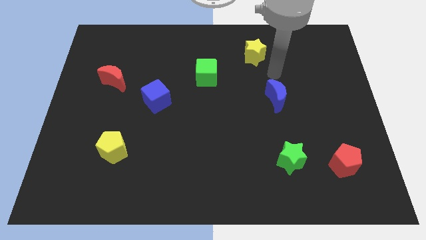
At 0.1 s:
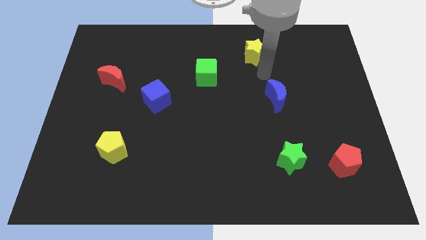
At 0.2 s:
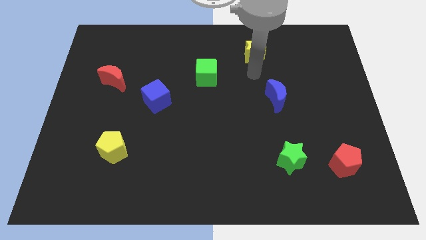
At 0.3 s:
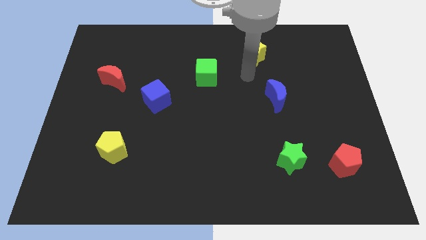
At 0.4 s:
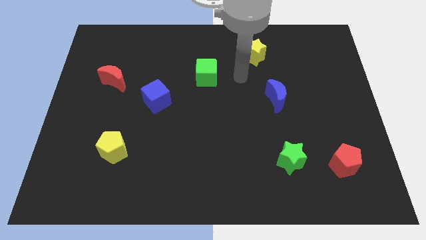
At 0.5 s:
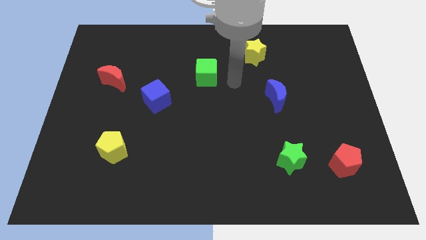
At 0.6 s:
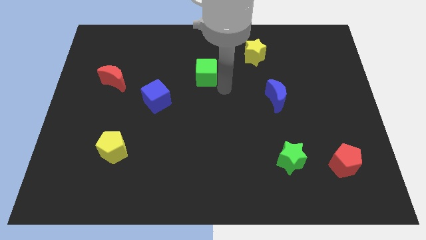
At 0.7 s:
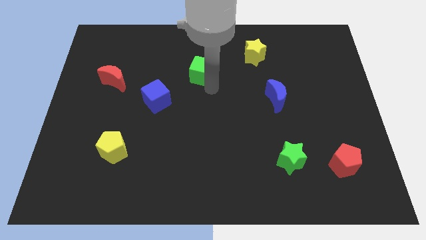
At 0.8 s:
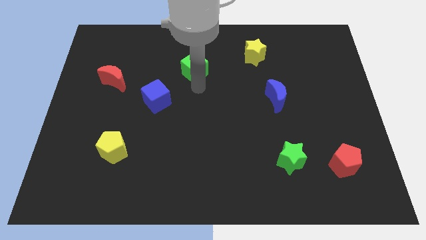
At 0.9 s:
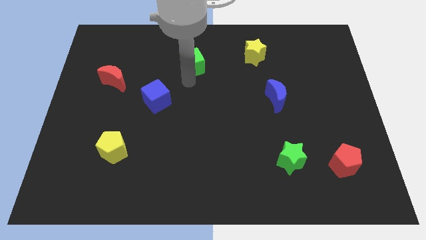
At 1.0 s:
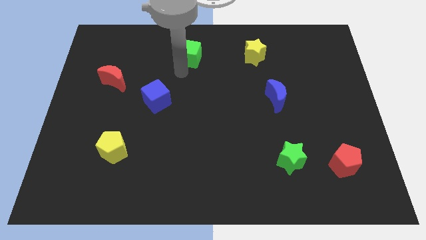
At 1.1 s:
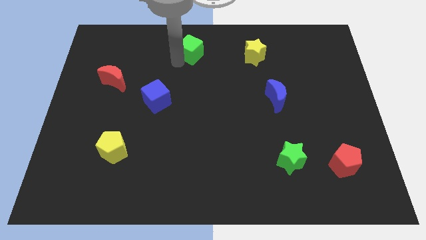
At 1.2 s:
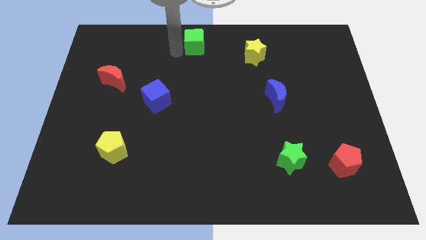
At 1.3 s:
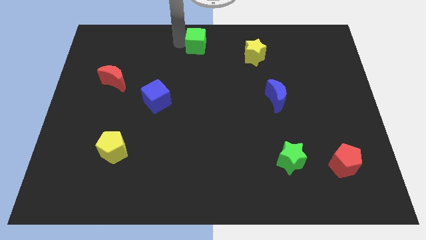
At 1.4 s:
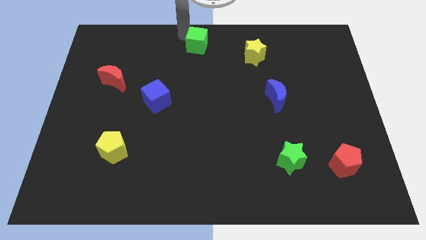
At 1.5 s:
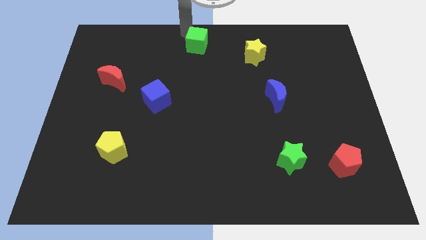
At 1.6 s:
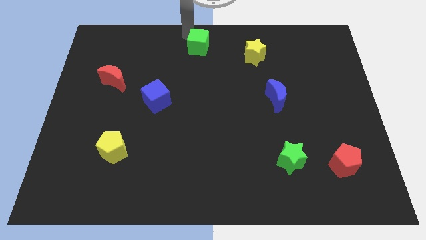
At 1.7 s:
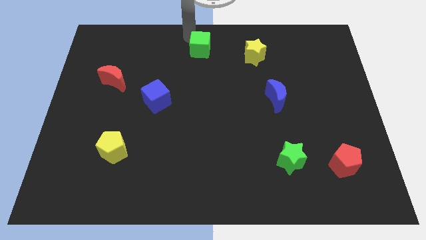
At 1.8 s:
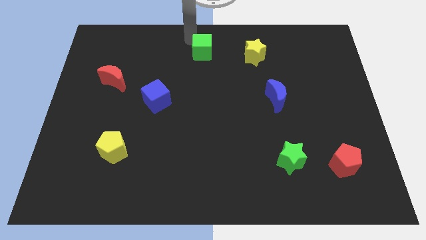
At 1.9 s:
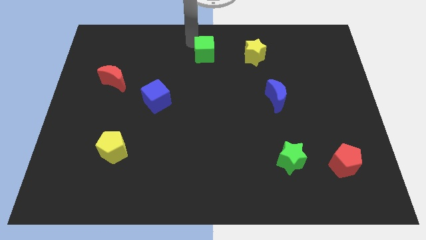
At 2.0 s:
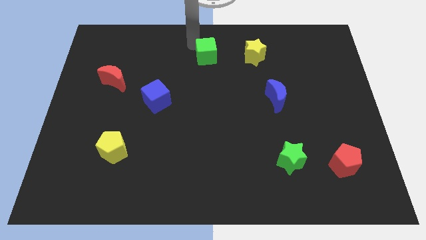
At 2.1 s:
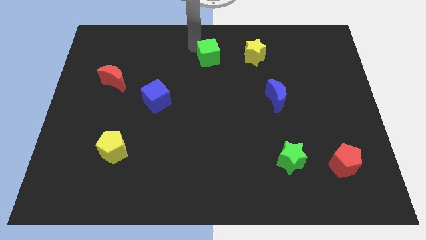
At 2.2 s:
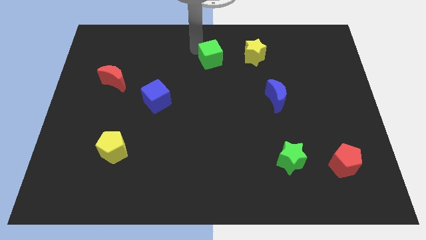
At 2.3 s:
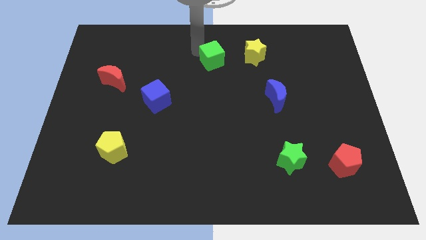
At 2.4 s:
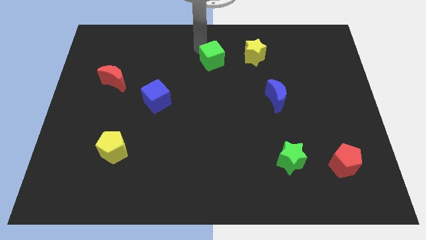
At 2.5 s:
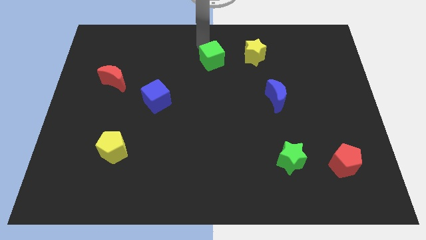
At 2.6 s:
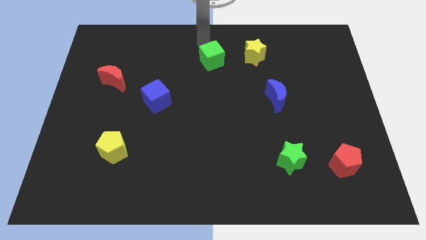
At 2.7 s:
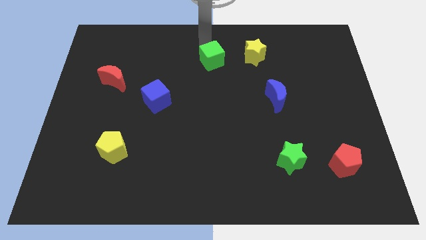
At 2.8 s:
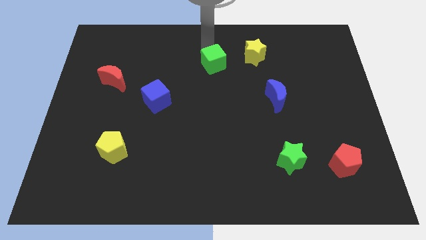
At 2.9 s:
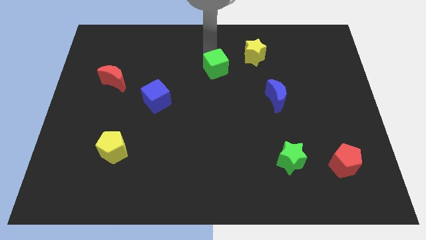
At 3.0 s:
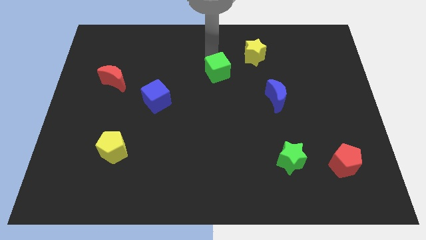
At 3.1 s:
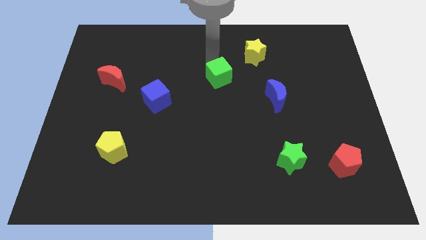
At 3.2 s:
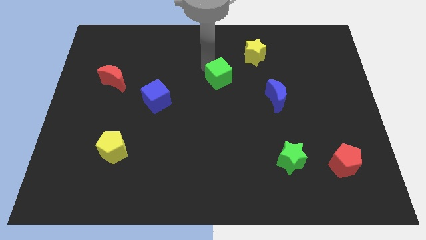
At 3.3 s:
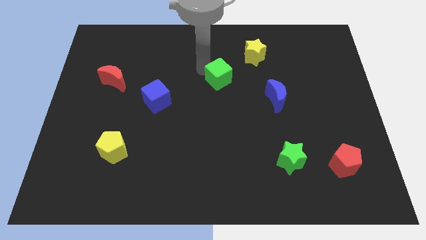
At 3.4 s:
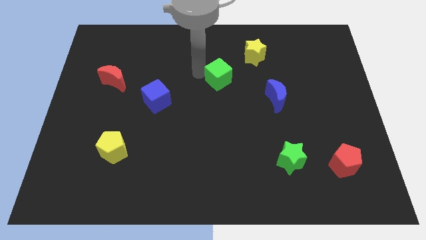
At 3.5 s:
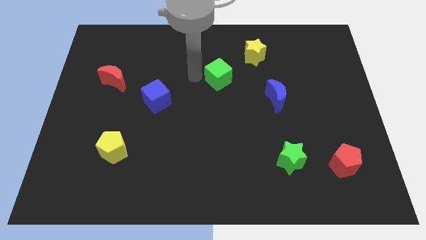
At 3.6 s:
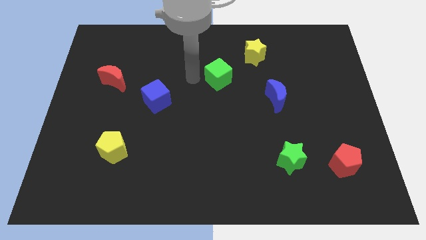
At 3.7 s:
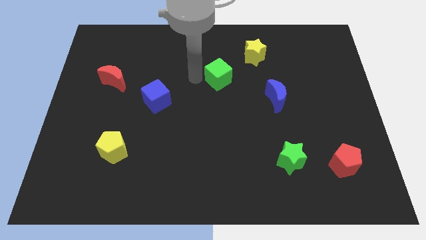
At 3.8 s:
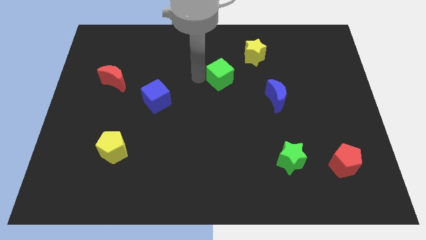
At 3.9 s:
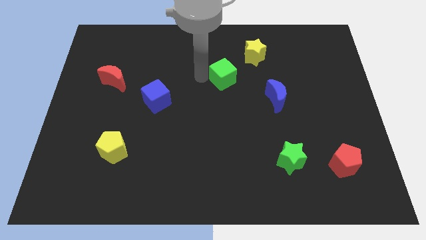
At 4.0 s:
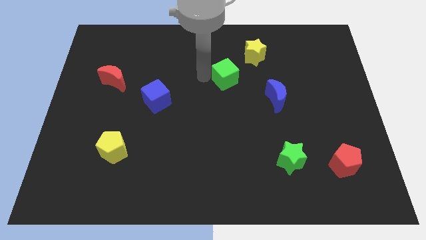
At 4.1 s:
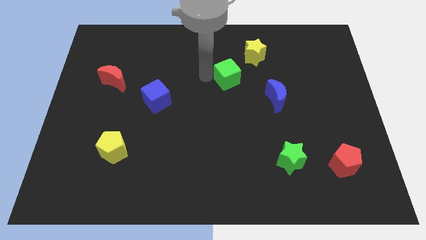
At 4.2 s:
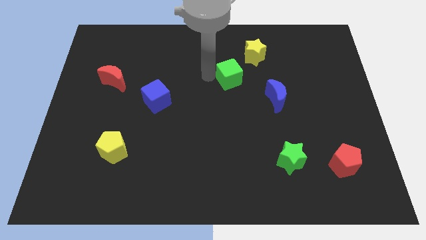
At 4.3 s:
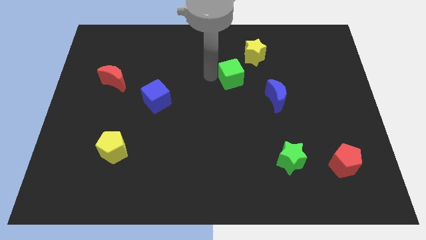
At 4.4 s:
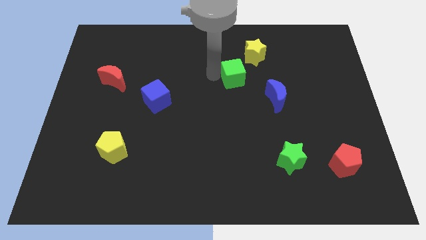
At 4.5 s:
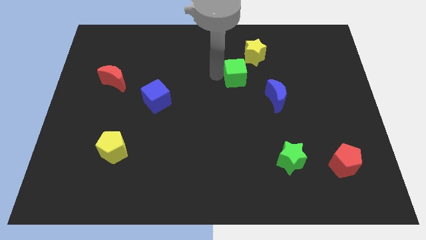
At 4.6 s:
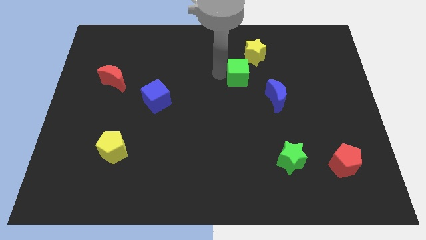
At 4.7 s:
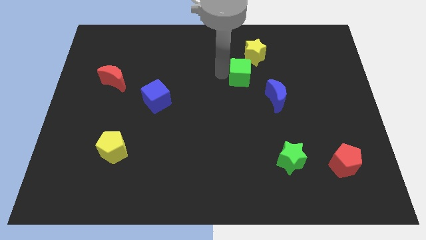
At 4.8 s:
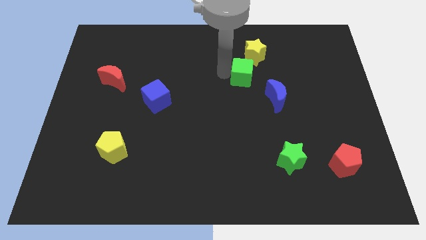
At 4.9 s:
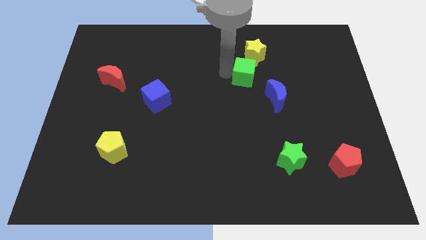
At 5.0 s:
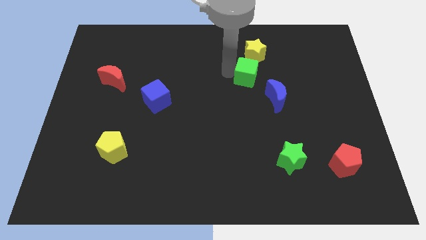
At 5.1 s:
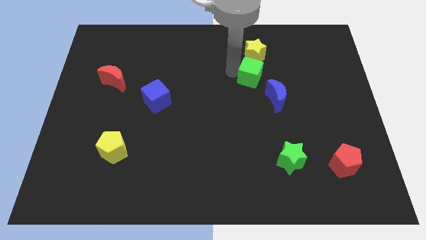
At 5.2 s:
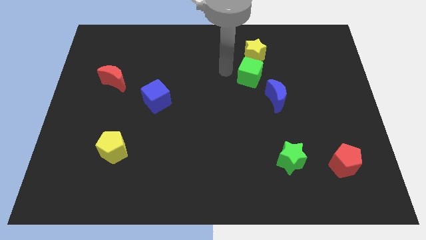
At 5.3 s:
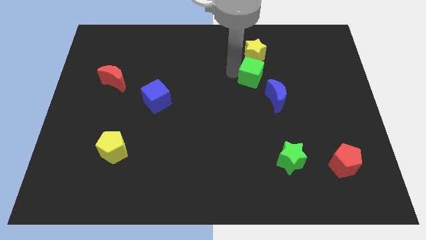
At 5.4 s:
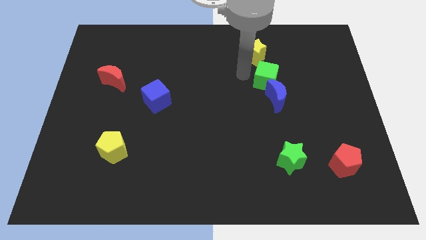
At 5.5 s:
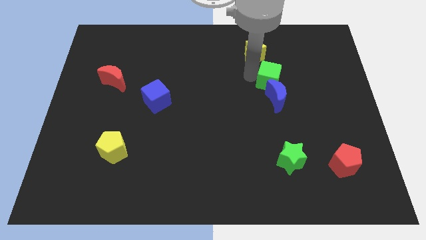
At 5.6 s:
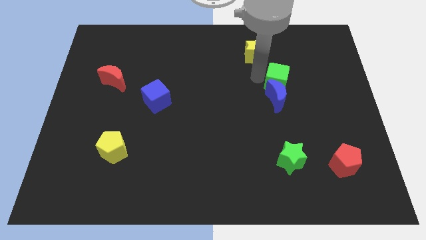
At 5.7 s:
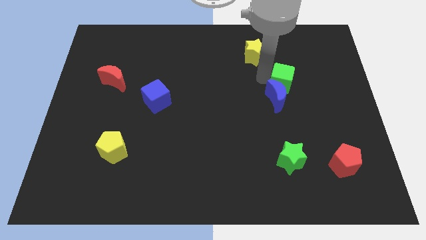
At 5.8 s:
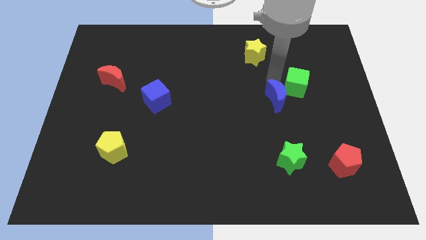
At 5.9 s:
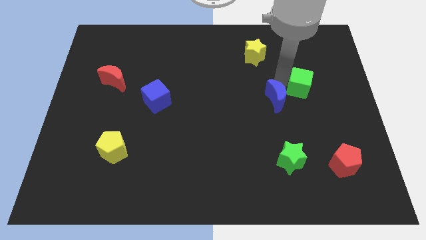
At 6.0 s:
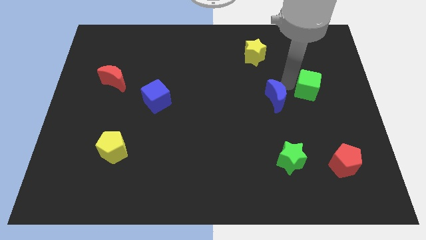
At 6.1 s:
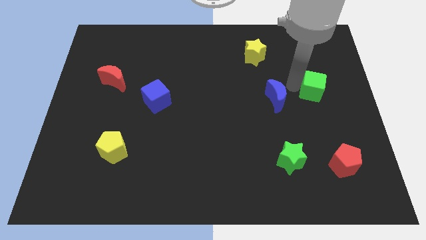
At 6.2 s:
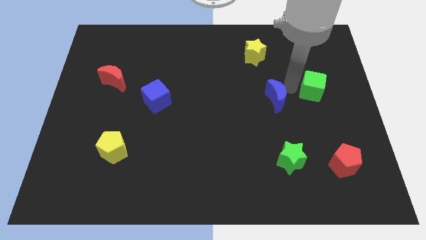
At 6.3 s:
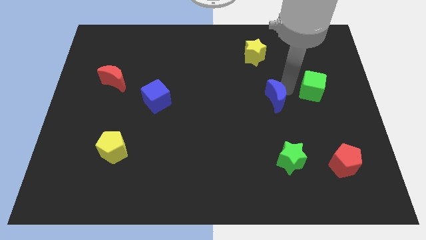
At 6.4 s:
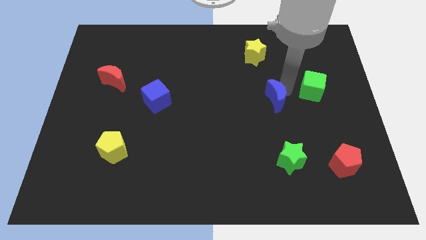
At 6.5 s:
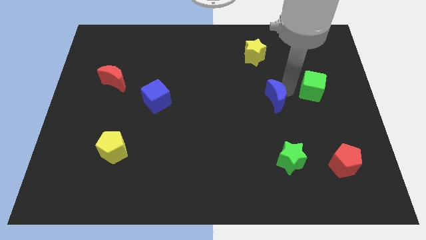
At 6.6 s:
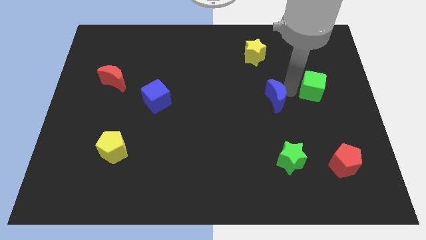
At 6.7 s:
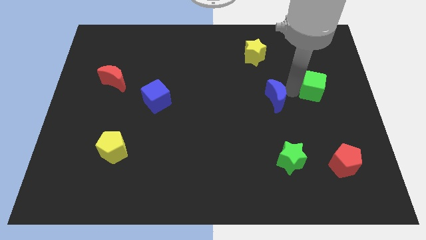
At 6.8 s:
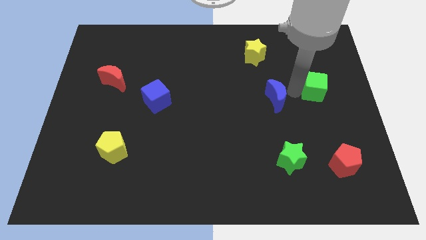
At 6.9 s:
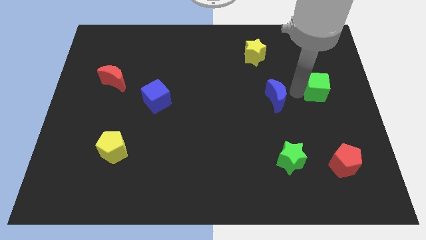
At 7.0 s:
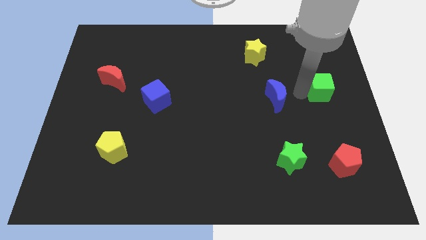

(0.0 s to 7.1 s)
push the green cube to the right side

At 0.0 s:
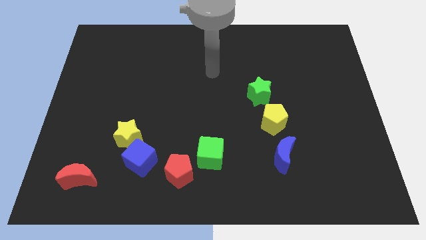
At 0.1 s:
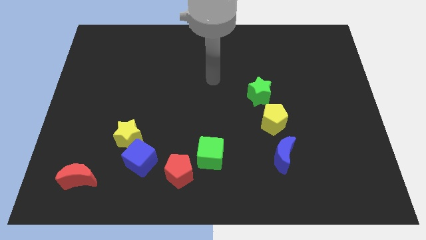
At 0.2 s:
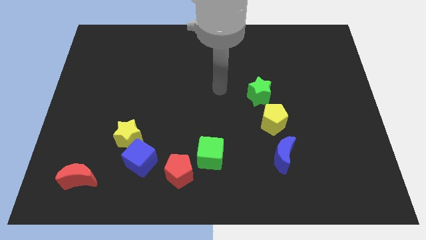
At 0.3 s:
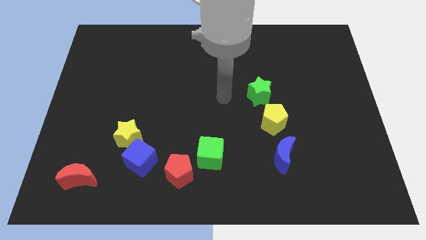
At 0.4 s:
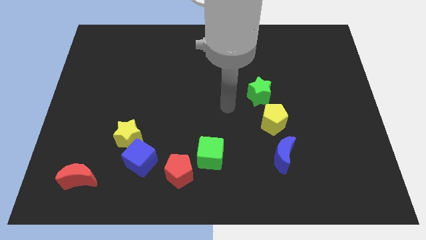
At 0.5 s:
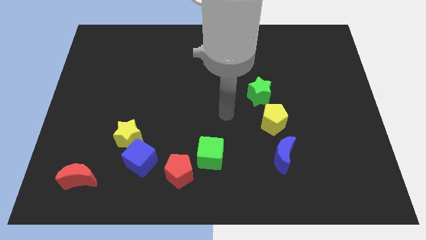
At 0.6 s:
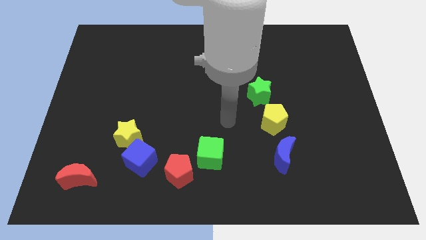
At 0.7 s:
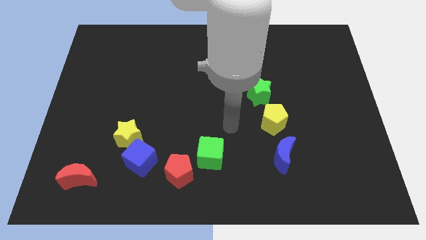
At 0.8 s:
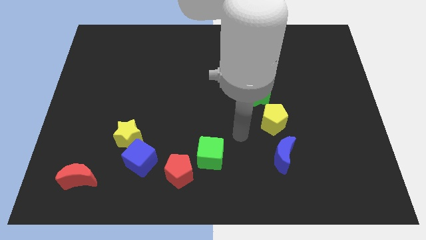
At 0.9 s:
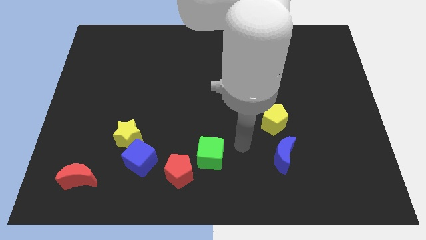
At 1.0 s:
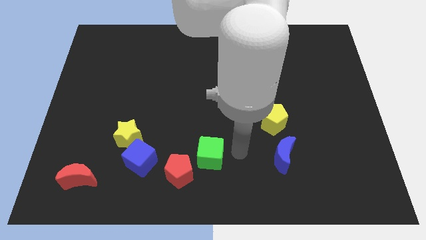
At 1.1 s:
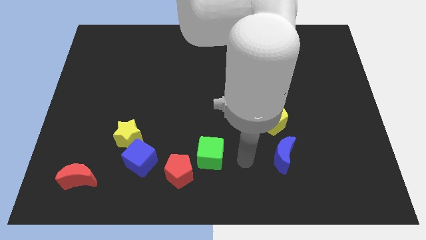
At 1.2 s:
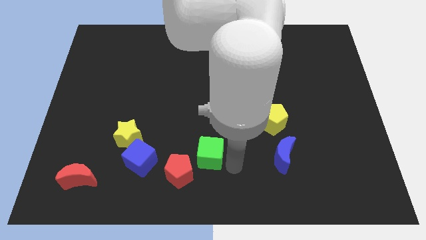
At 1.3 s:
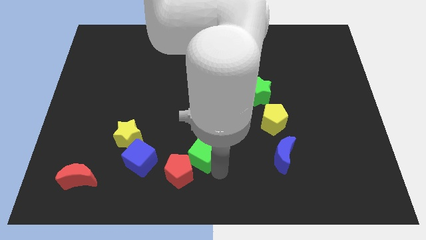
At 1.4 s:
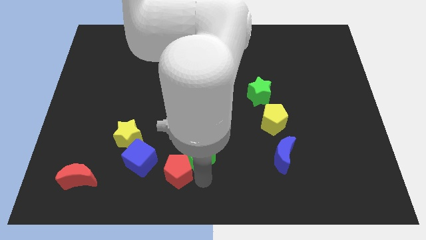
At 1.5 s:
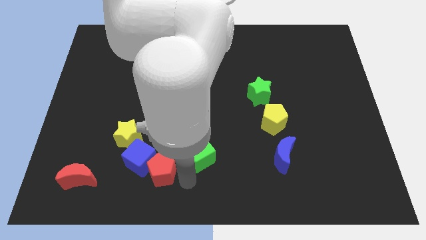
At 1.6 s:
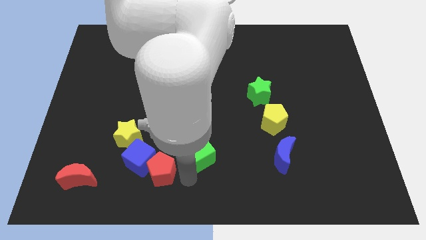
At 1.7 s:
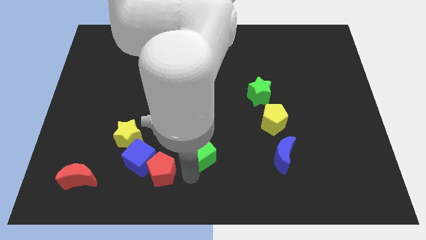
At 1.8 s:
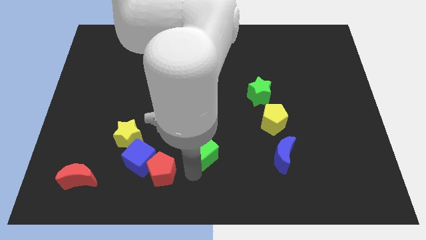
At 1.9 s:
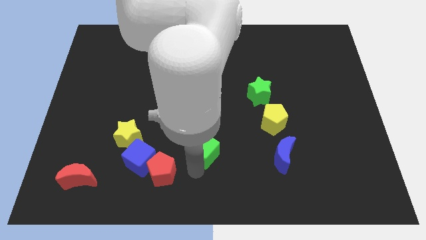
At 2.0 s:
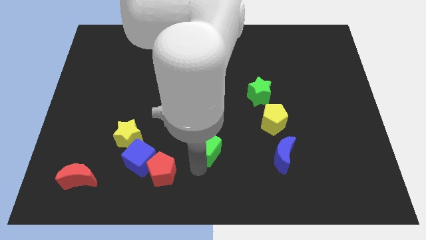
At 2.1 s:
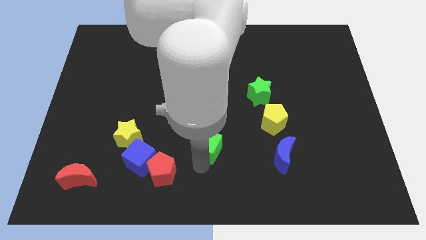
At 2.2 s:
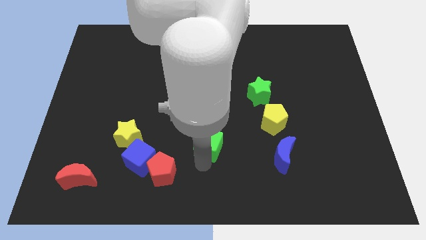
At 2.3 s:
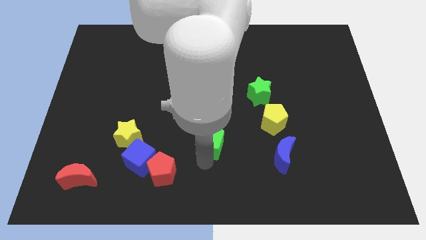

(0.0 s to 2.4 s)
push the green cube to the middle of the board
